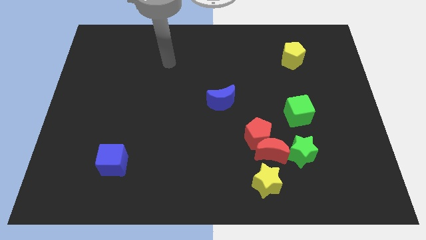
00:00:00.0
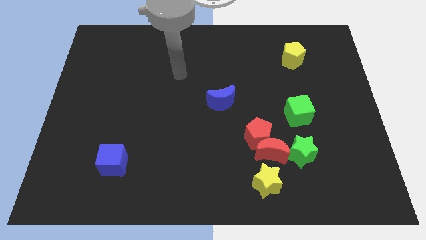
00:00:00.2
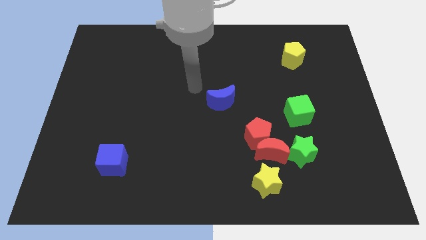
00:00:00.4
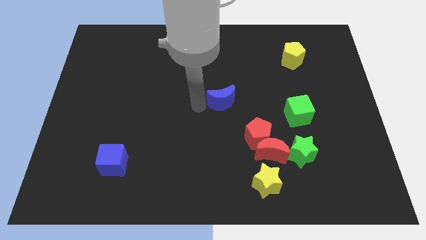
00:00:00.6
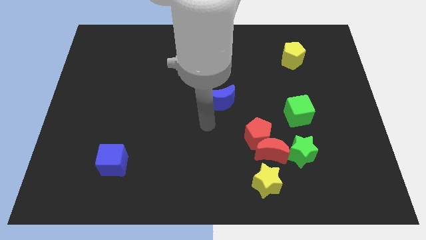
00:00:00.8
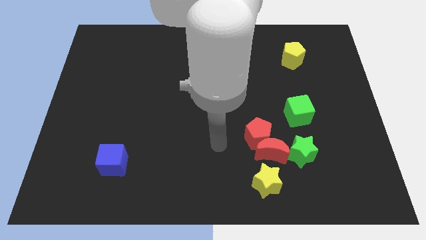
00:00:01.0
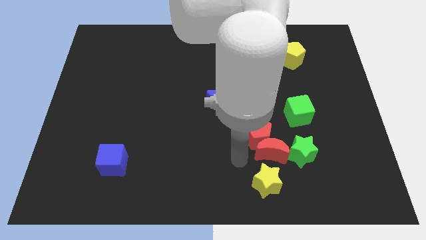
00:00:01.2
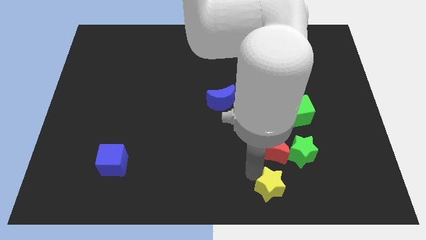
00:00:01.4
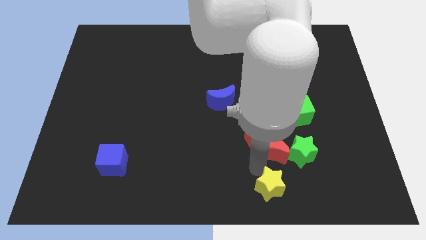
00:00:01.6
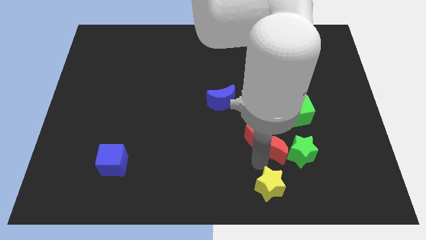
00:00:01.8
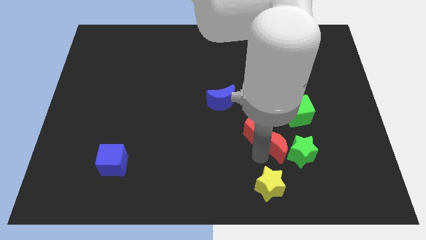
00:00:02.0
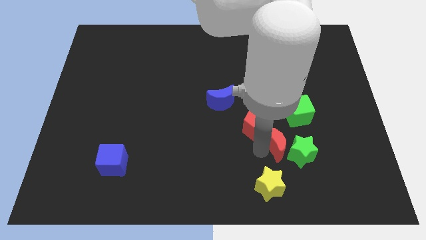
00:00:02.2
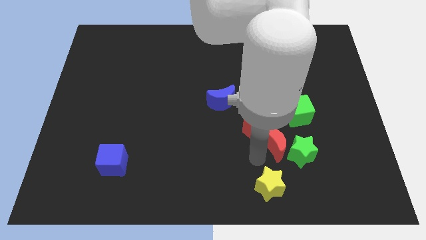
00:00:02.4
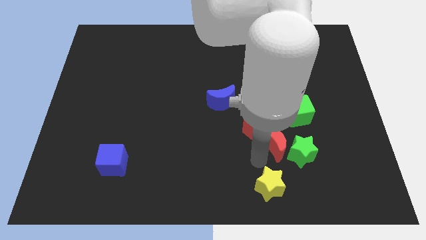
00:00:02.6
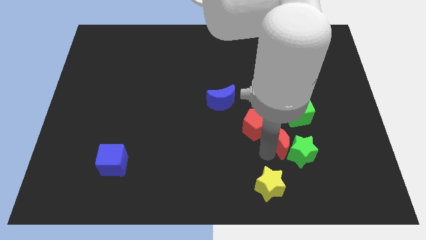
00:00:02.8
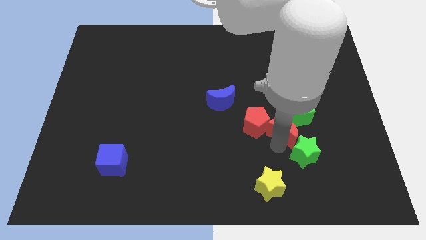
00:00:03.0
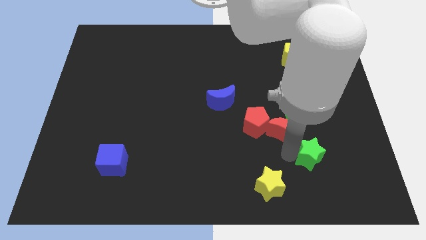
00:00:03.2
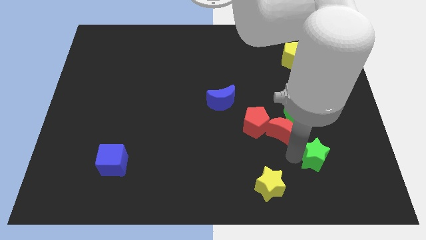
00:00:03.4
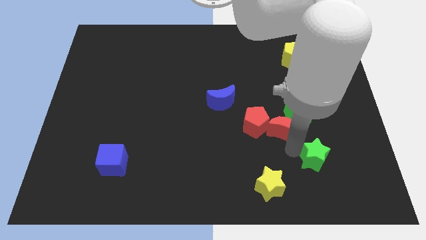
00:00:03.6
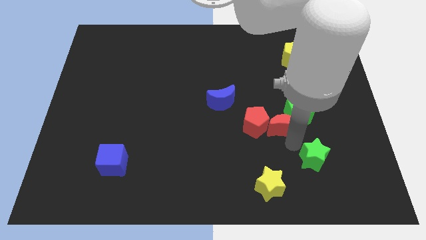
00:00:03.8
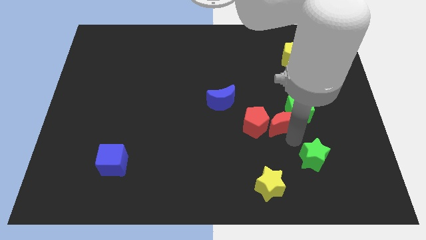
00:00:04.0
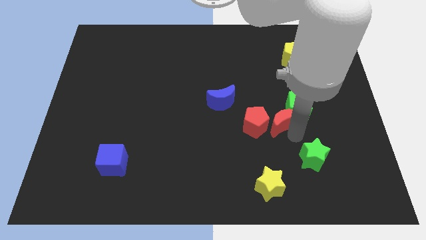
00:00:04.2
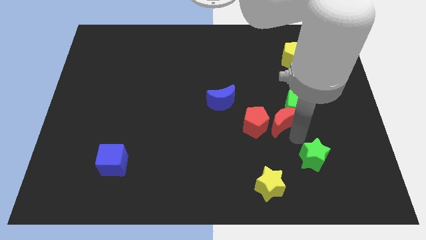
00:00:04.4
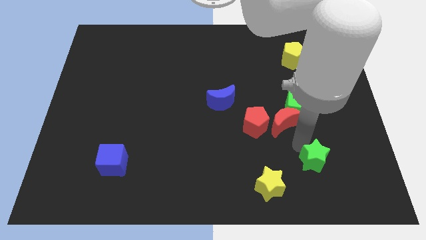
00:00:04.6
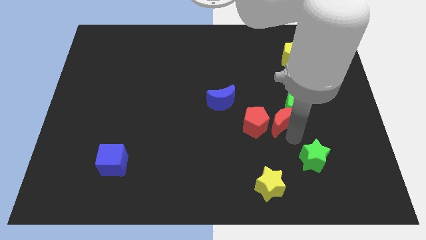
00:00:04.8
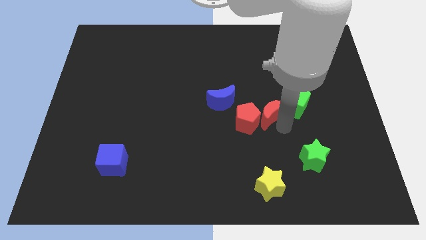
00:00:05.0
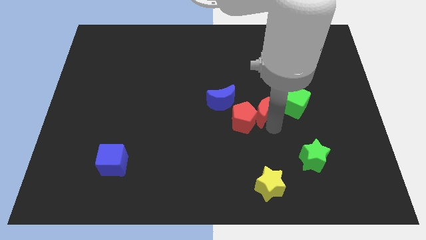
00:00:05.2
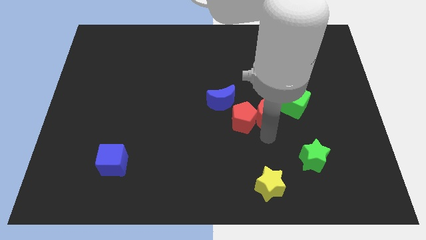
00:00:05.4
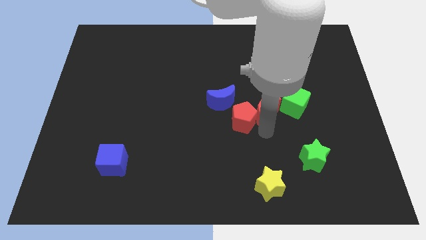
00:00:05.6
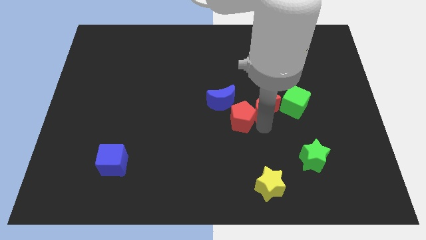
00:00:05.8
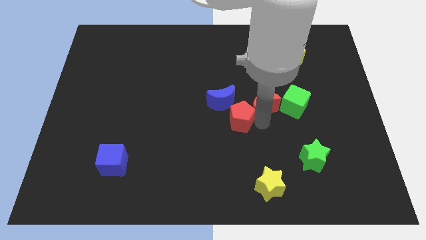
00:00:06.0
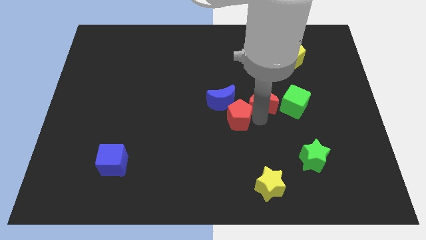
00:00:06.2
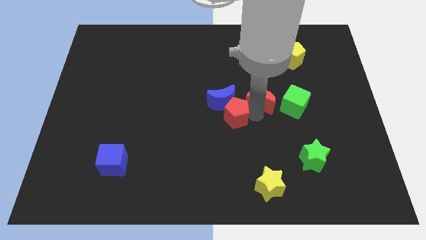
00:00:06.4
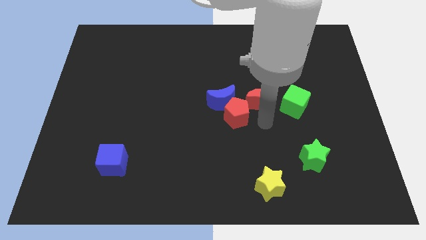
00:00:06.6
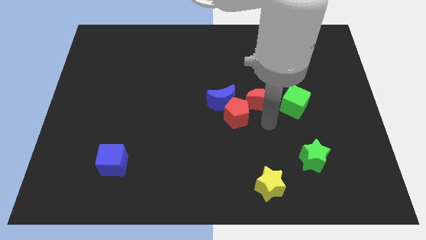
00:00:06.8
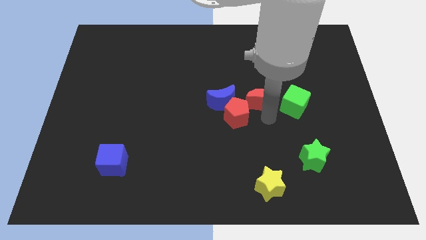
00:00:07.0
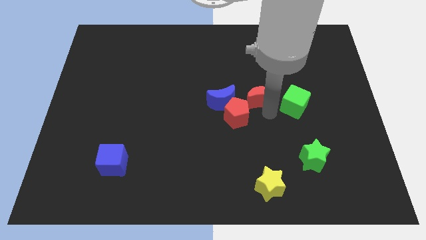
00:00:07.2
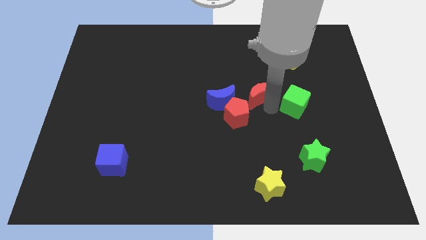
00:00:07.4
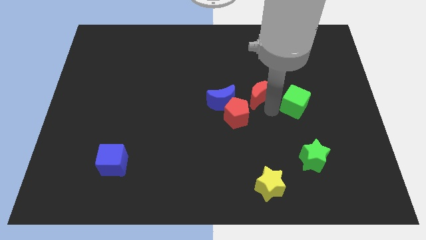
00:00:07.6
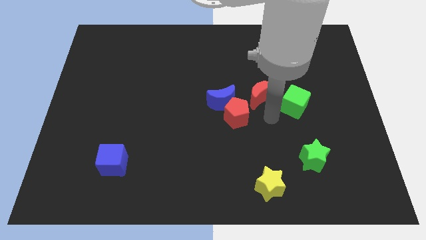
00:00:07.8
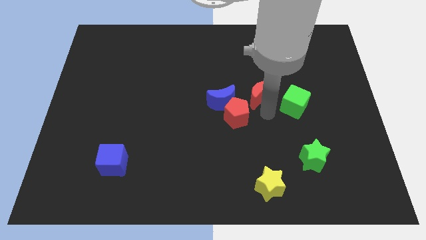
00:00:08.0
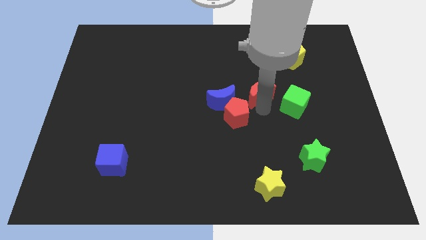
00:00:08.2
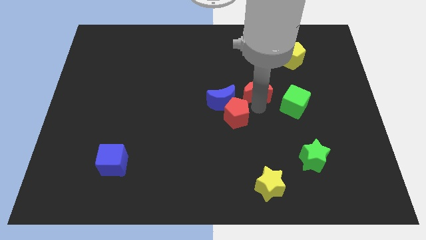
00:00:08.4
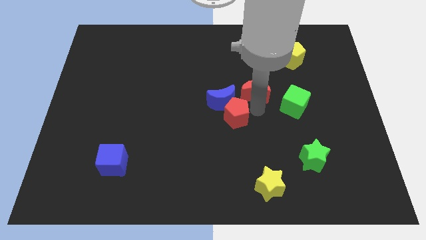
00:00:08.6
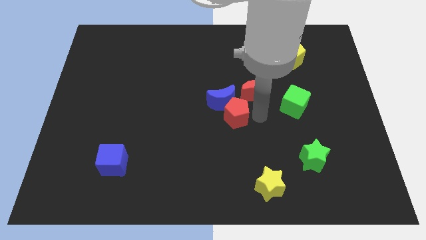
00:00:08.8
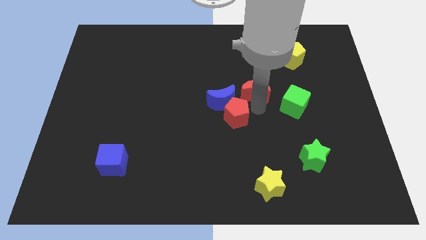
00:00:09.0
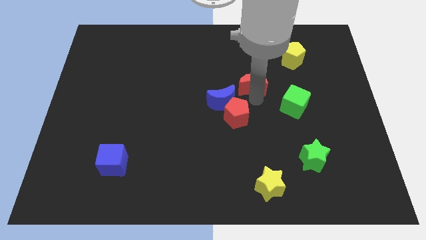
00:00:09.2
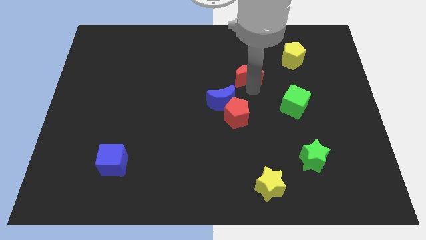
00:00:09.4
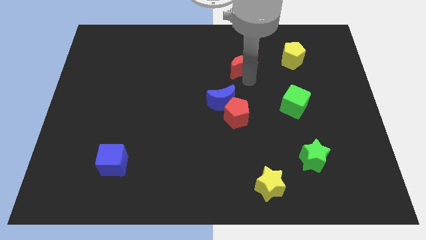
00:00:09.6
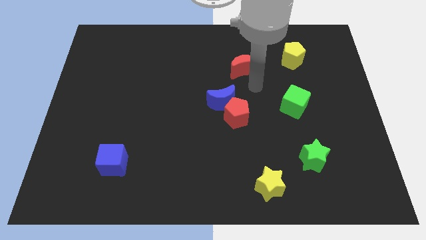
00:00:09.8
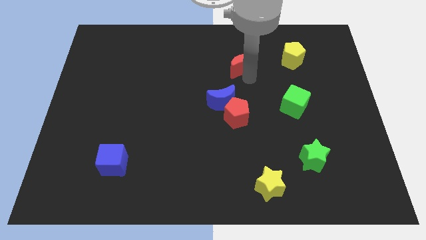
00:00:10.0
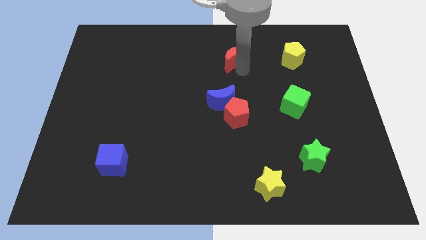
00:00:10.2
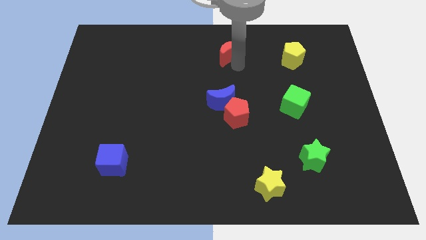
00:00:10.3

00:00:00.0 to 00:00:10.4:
move the red moon to the towards your base
